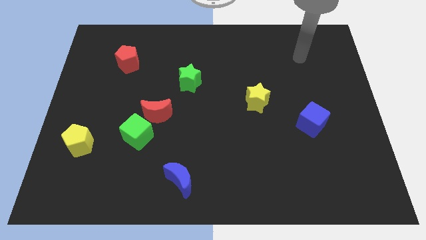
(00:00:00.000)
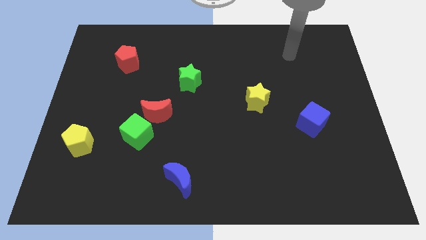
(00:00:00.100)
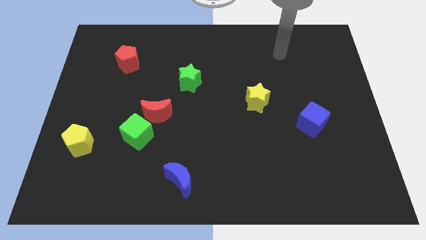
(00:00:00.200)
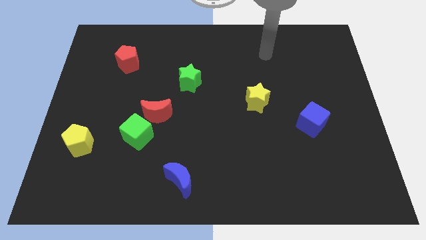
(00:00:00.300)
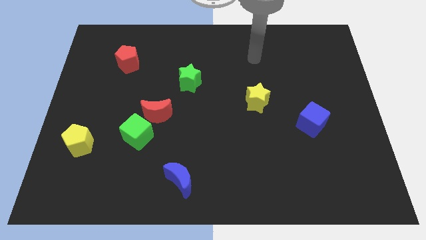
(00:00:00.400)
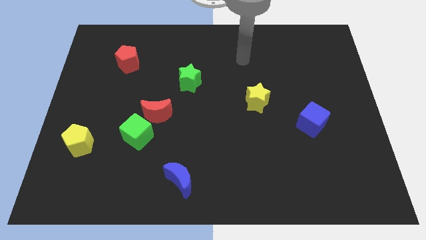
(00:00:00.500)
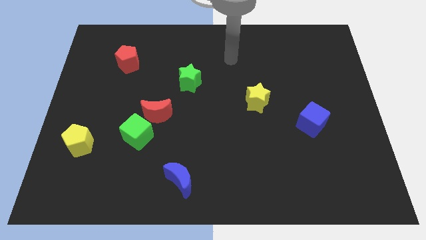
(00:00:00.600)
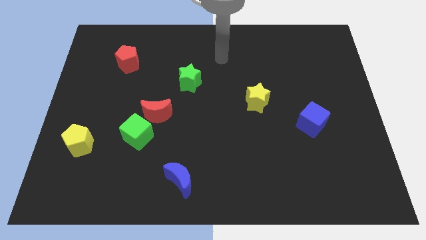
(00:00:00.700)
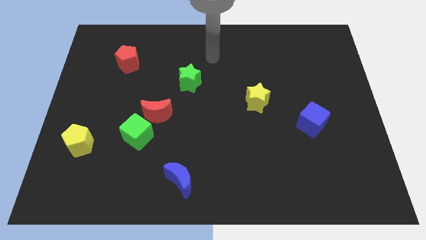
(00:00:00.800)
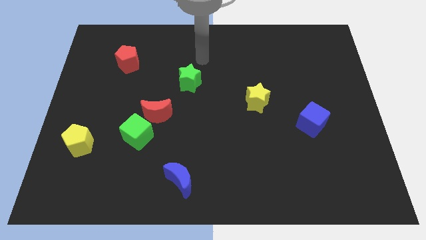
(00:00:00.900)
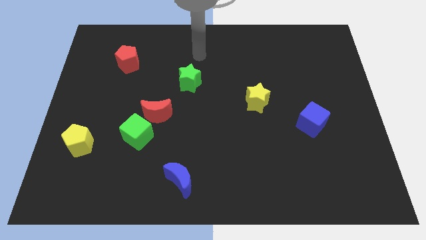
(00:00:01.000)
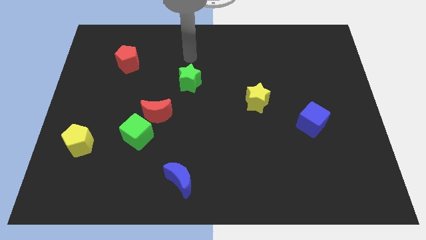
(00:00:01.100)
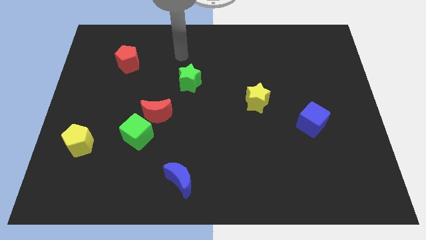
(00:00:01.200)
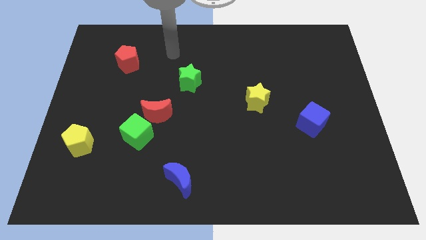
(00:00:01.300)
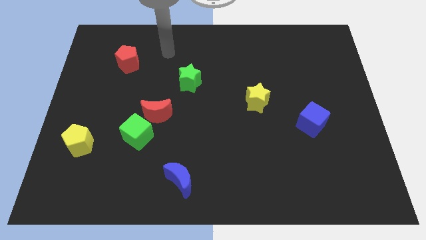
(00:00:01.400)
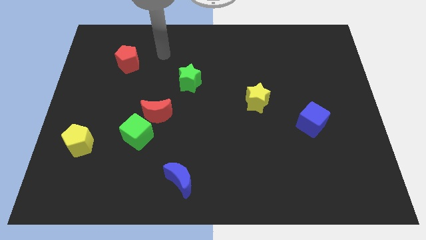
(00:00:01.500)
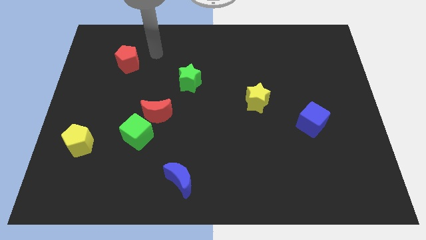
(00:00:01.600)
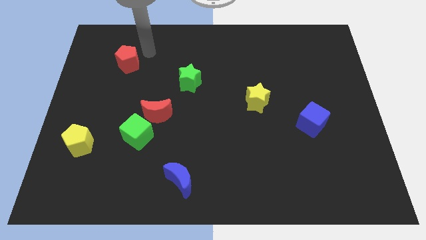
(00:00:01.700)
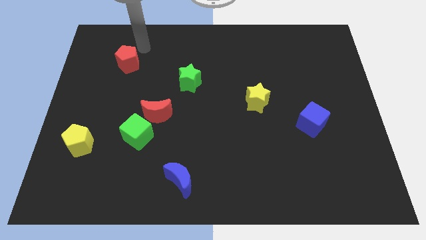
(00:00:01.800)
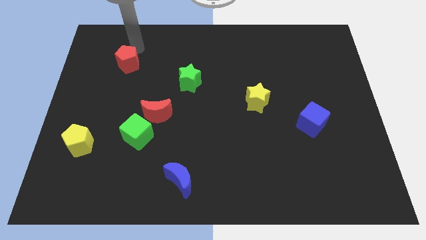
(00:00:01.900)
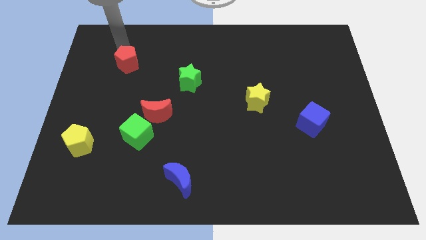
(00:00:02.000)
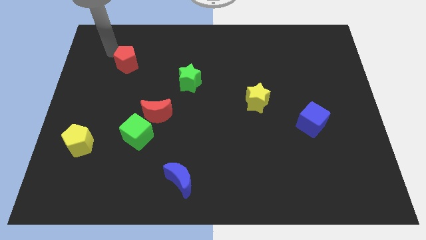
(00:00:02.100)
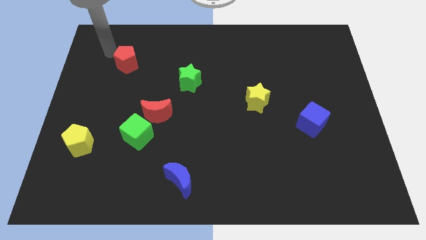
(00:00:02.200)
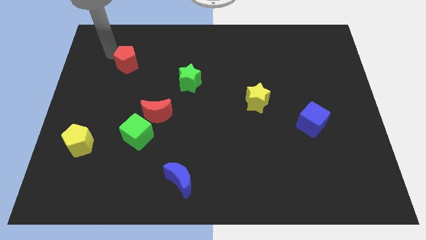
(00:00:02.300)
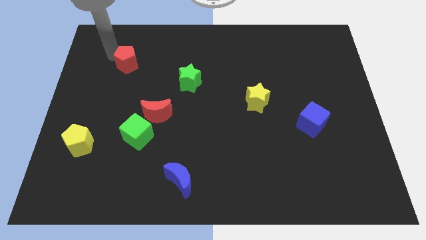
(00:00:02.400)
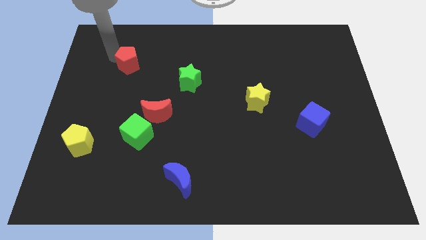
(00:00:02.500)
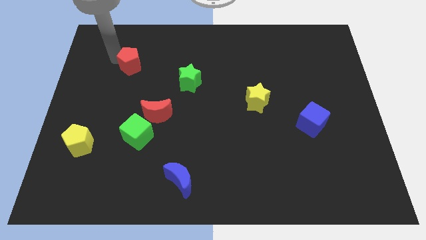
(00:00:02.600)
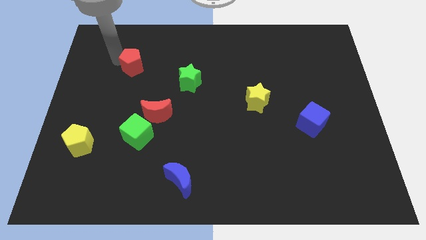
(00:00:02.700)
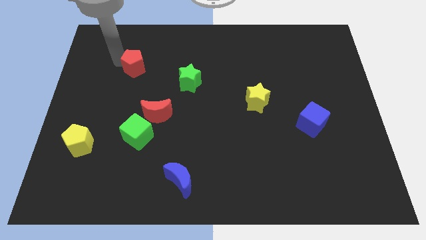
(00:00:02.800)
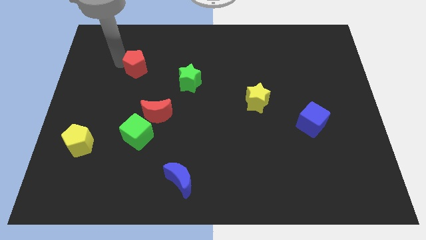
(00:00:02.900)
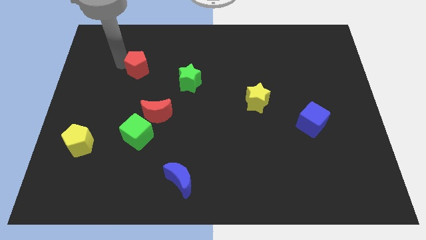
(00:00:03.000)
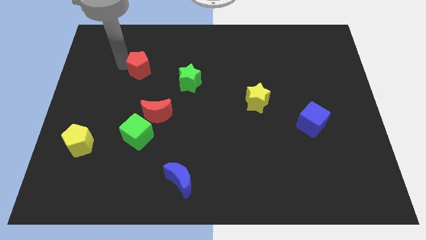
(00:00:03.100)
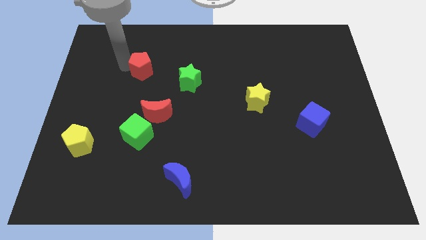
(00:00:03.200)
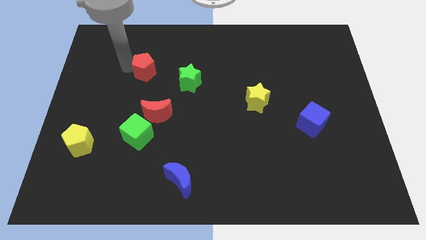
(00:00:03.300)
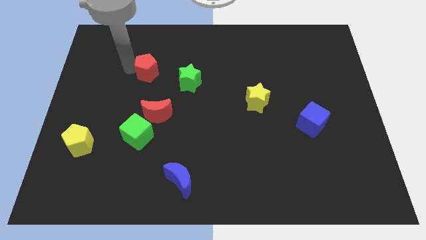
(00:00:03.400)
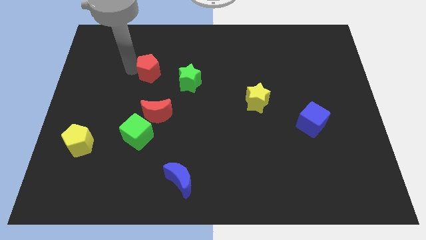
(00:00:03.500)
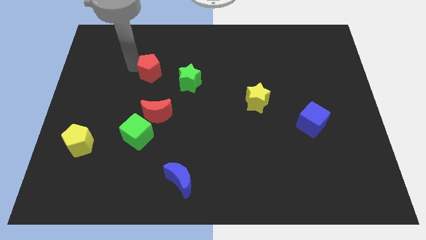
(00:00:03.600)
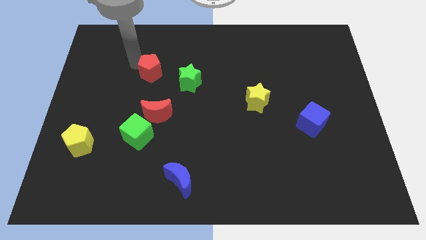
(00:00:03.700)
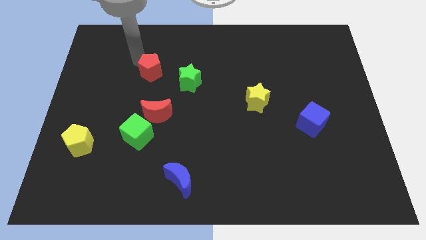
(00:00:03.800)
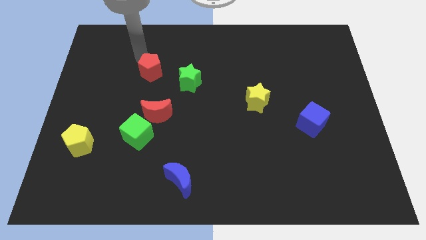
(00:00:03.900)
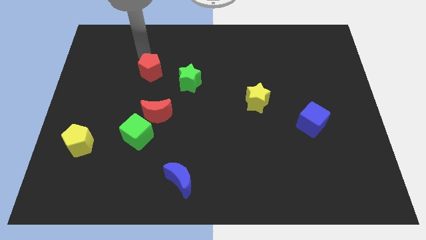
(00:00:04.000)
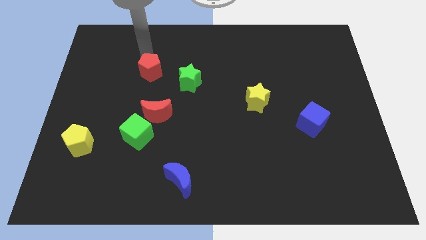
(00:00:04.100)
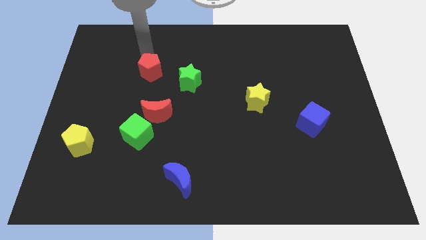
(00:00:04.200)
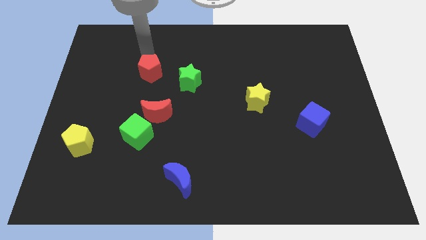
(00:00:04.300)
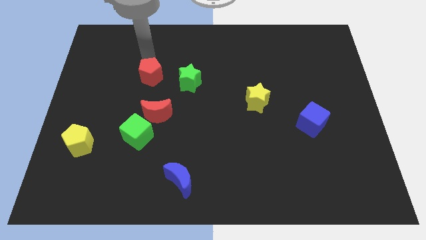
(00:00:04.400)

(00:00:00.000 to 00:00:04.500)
slide the red pentagon down and right diagonally somewhat

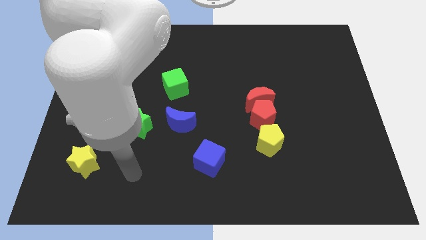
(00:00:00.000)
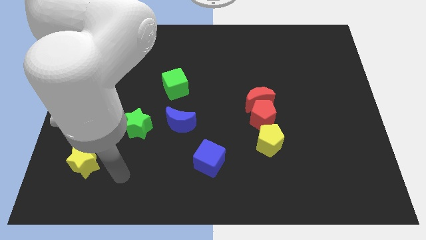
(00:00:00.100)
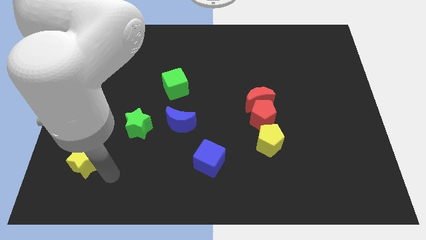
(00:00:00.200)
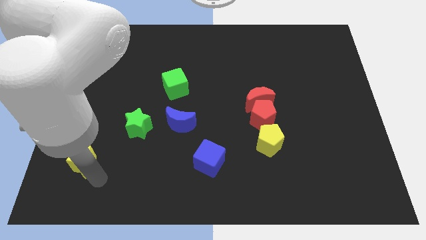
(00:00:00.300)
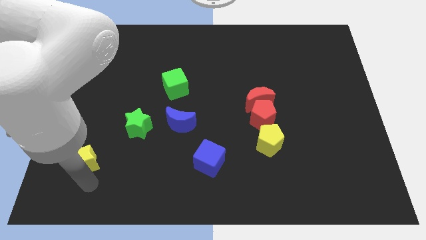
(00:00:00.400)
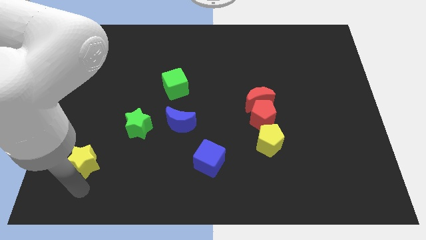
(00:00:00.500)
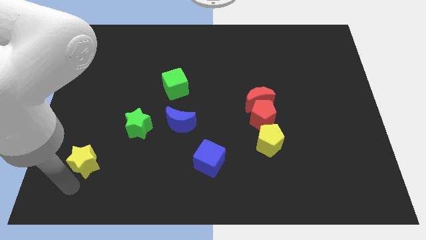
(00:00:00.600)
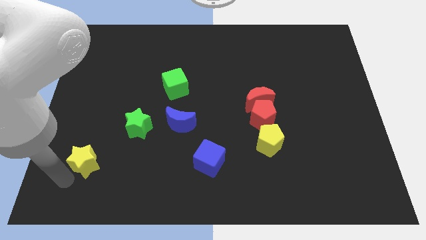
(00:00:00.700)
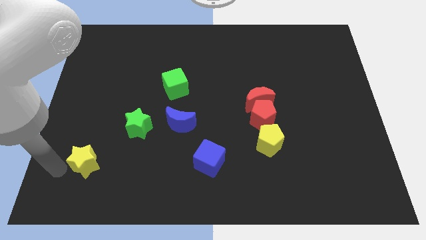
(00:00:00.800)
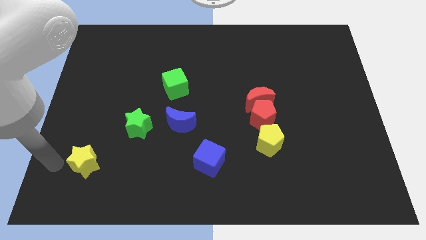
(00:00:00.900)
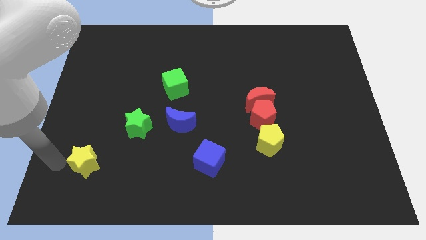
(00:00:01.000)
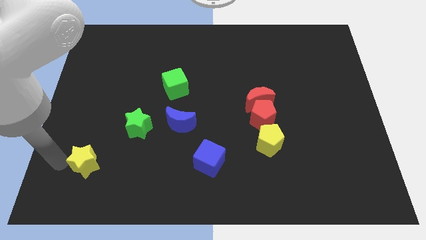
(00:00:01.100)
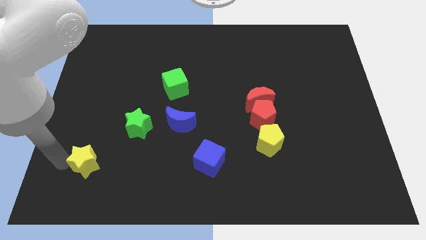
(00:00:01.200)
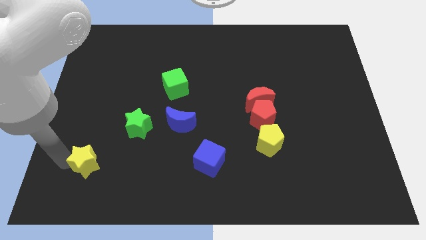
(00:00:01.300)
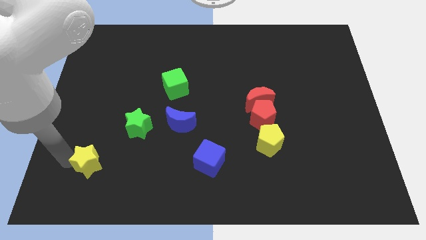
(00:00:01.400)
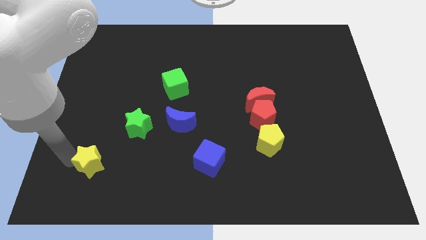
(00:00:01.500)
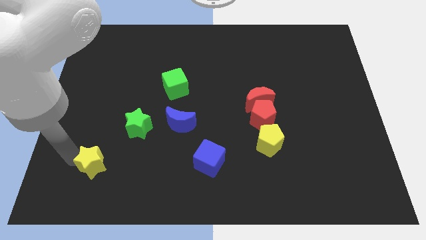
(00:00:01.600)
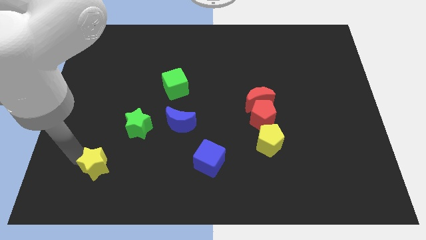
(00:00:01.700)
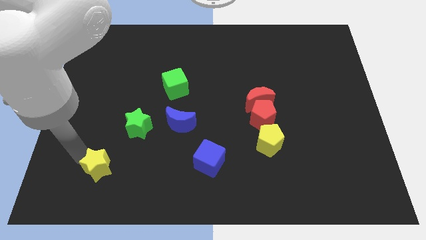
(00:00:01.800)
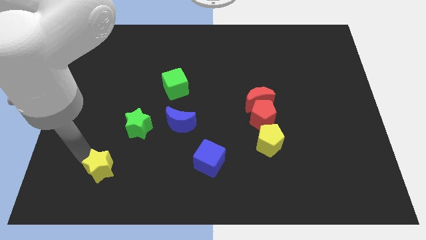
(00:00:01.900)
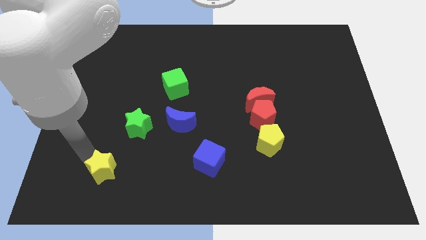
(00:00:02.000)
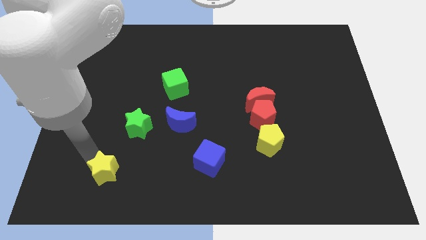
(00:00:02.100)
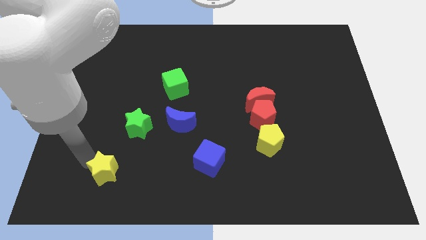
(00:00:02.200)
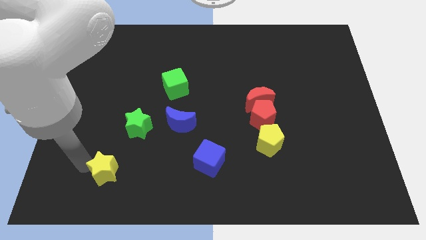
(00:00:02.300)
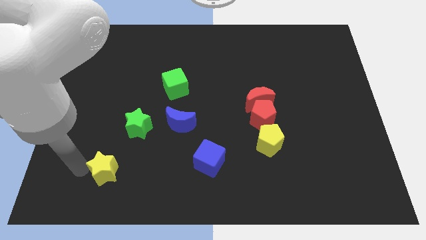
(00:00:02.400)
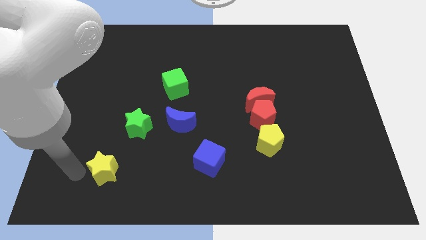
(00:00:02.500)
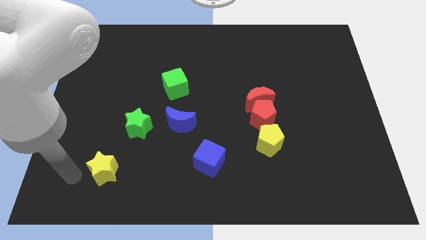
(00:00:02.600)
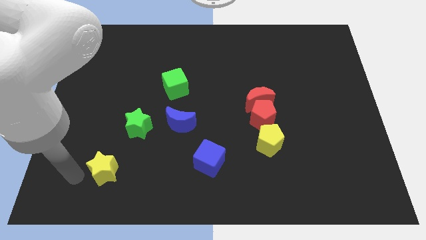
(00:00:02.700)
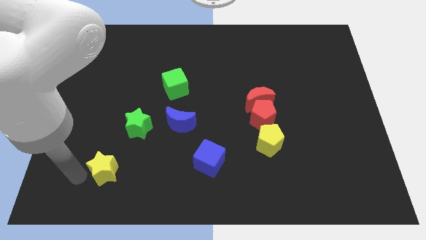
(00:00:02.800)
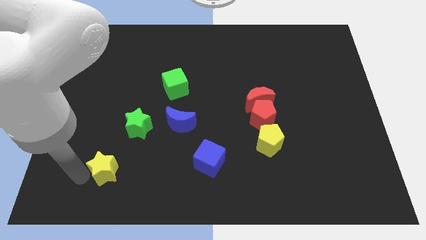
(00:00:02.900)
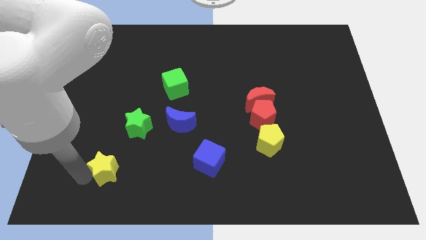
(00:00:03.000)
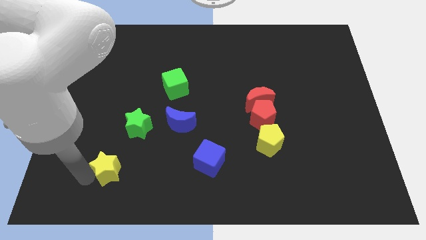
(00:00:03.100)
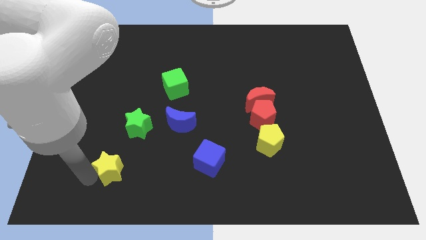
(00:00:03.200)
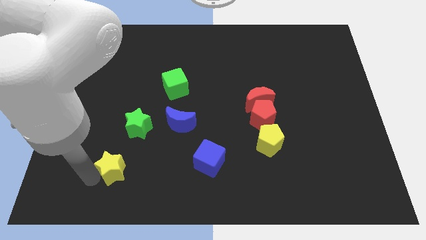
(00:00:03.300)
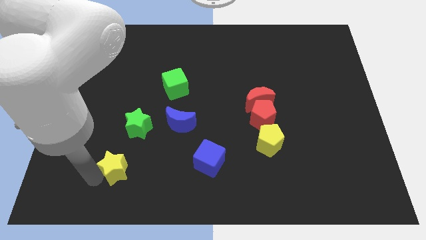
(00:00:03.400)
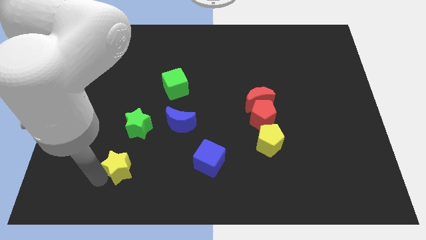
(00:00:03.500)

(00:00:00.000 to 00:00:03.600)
move the yellow star a bit to the right
